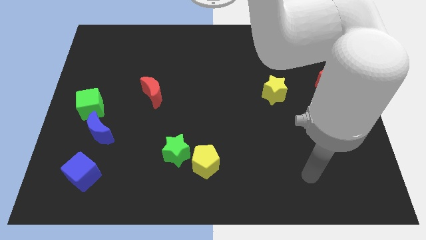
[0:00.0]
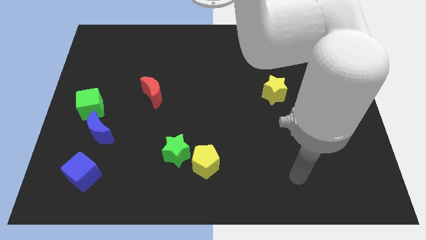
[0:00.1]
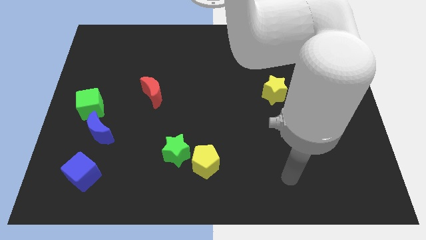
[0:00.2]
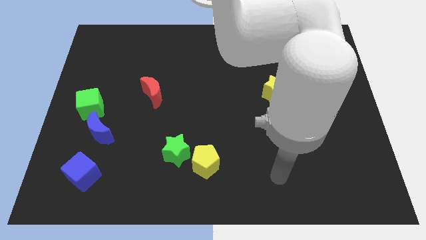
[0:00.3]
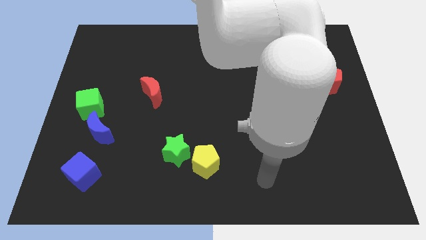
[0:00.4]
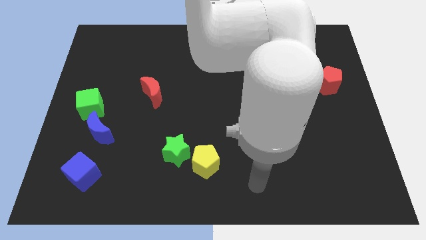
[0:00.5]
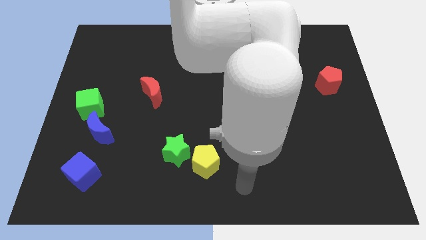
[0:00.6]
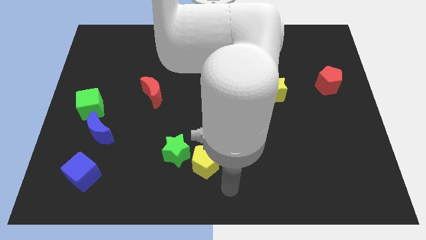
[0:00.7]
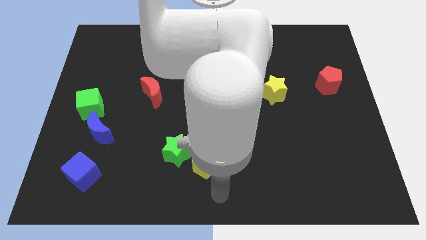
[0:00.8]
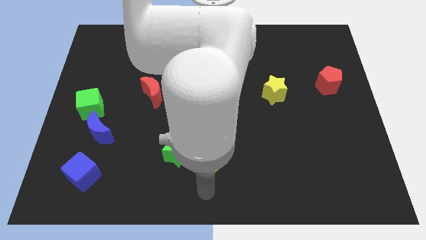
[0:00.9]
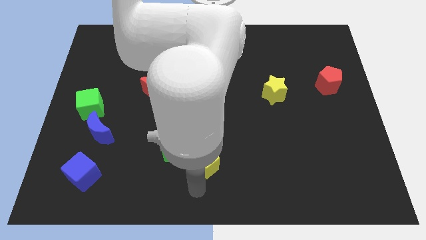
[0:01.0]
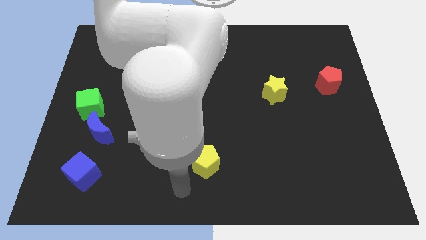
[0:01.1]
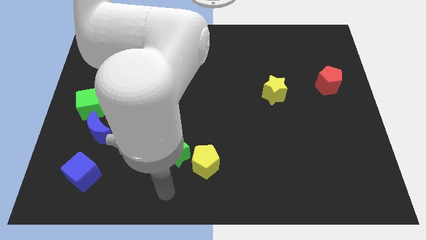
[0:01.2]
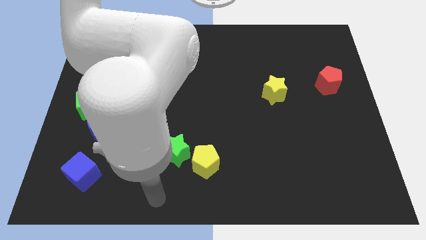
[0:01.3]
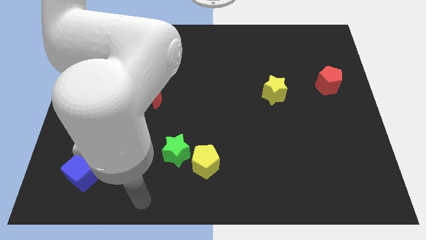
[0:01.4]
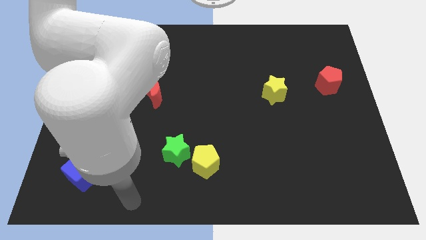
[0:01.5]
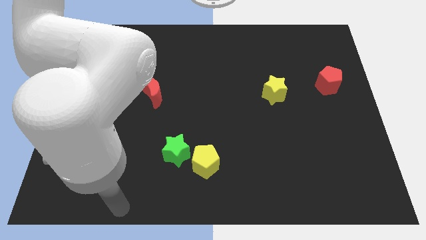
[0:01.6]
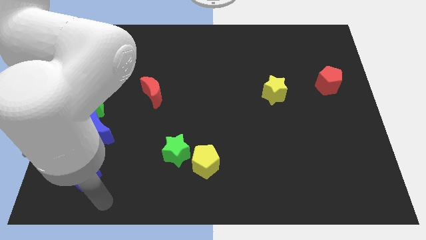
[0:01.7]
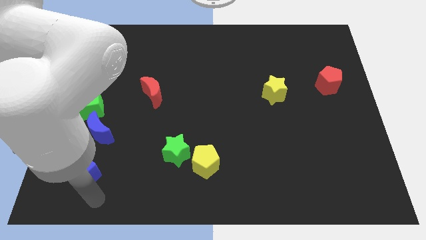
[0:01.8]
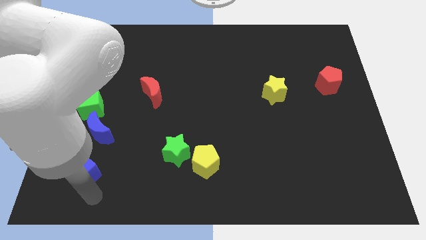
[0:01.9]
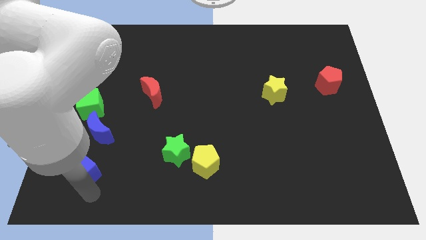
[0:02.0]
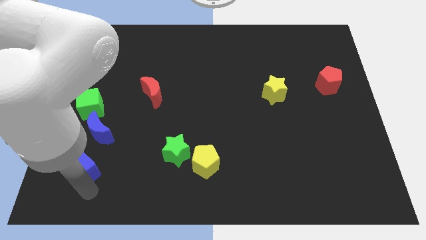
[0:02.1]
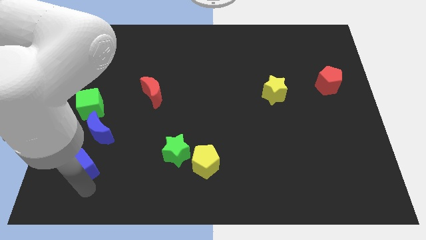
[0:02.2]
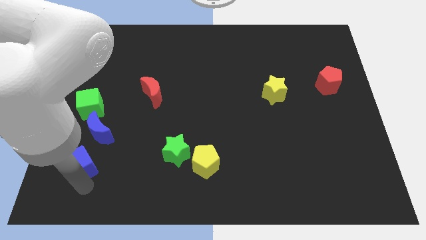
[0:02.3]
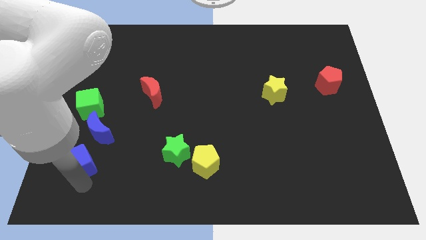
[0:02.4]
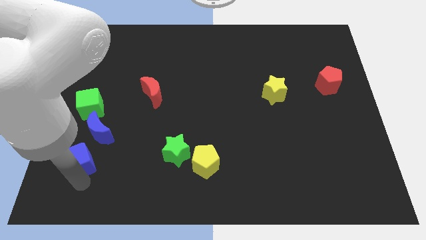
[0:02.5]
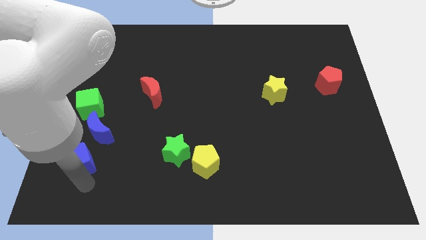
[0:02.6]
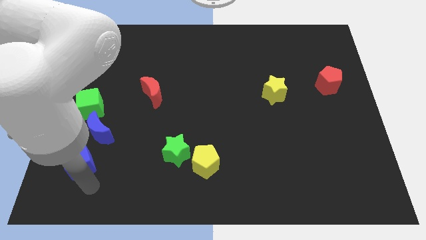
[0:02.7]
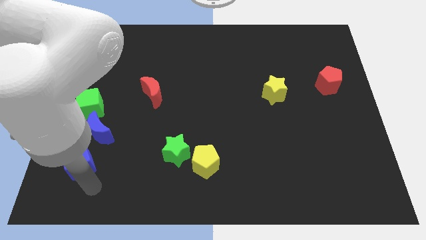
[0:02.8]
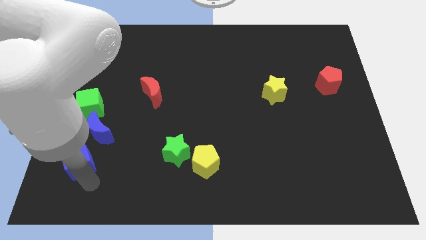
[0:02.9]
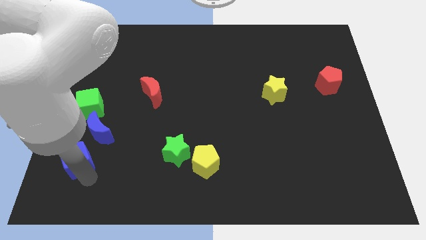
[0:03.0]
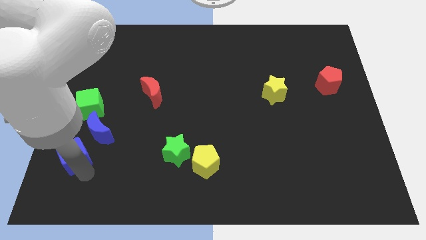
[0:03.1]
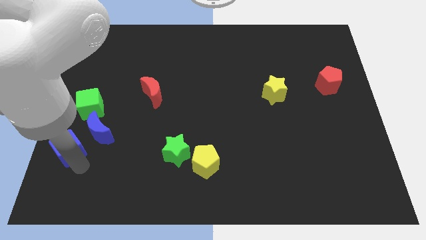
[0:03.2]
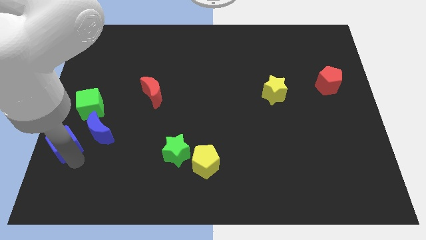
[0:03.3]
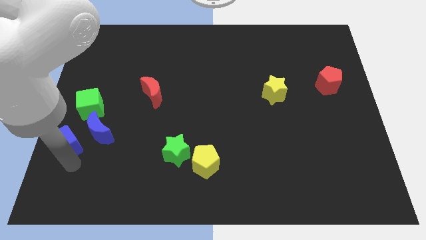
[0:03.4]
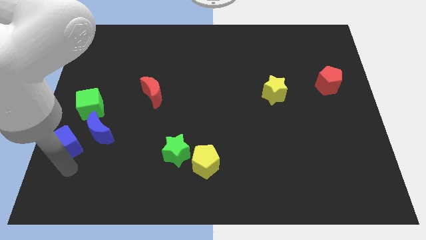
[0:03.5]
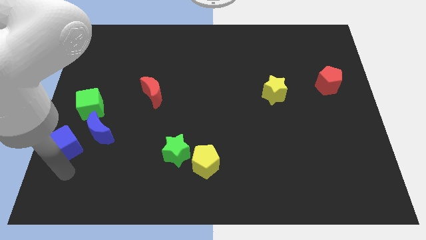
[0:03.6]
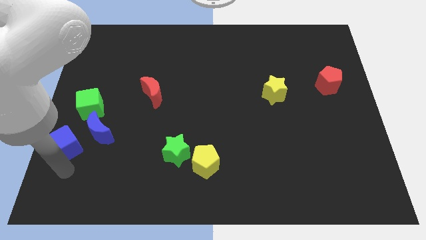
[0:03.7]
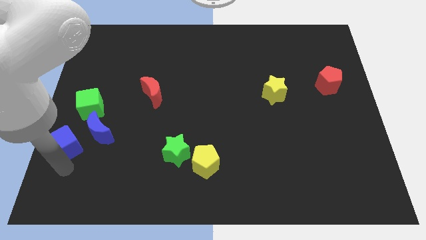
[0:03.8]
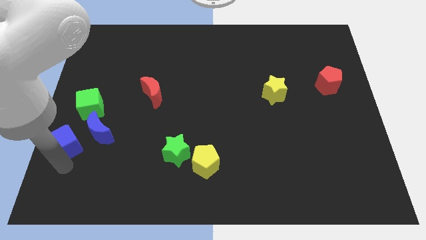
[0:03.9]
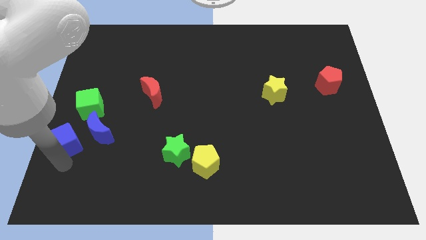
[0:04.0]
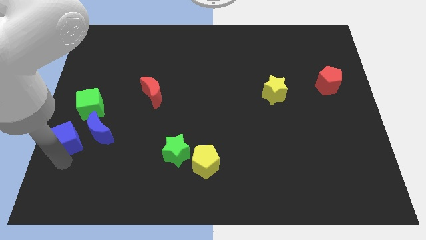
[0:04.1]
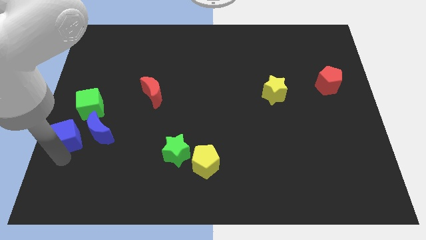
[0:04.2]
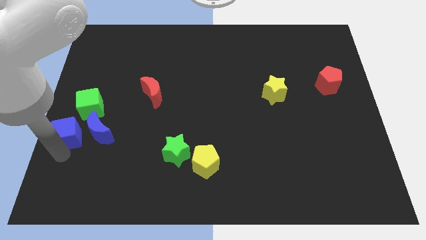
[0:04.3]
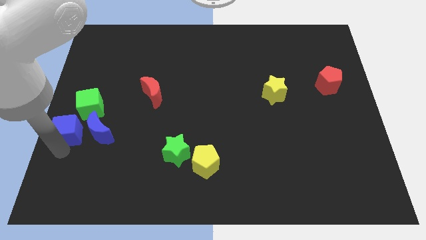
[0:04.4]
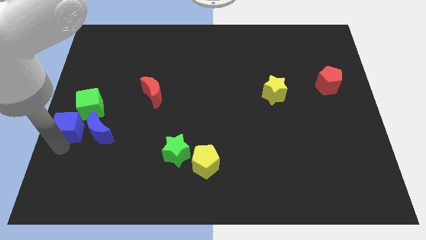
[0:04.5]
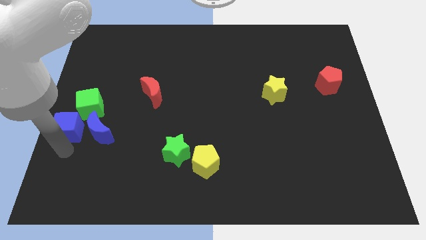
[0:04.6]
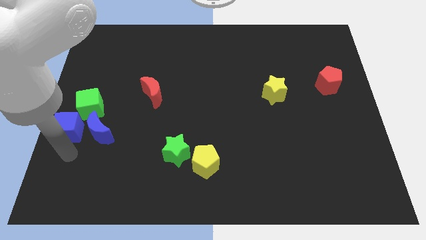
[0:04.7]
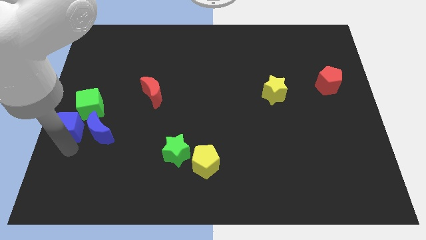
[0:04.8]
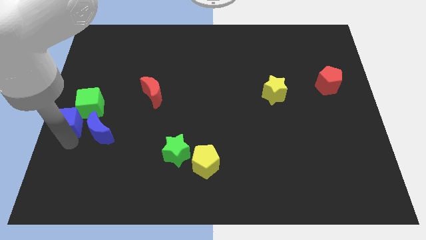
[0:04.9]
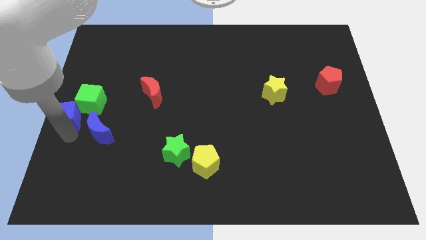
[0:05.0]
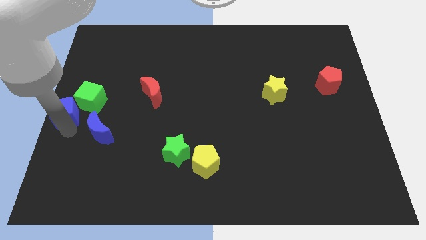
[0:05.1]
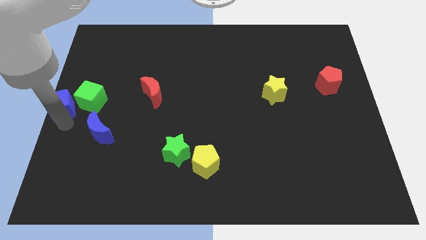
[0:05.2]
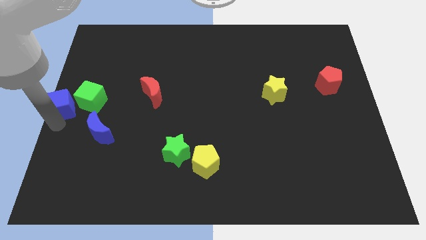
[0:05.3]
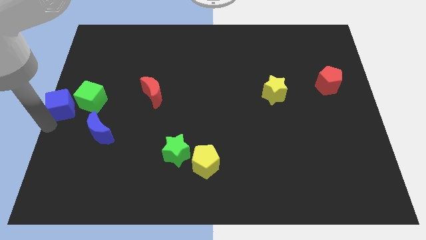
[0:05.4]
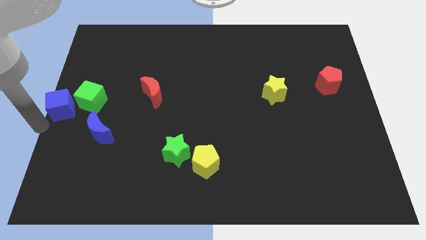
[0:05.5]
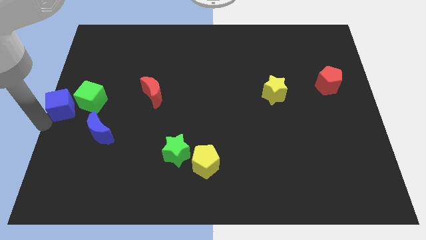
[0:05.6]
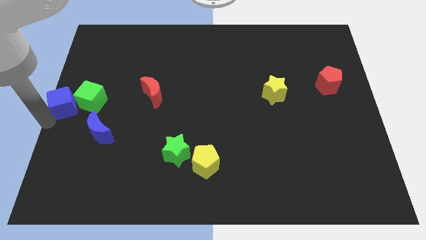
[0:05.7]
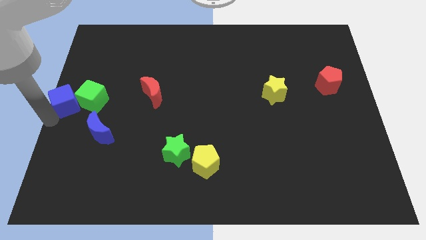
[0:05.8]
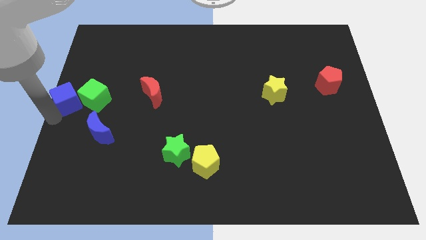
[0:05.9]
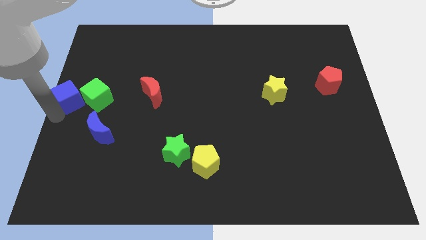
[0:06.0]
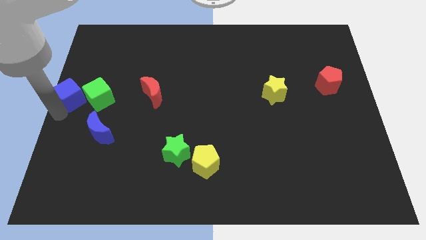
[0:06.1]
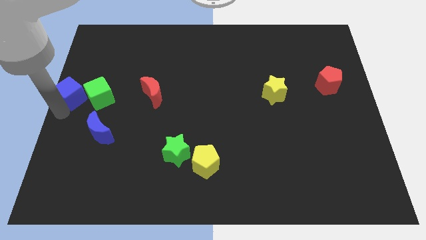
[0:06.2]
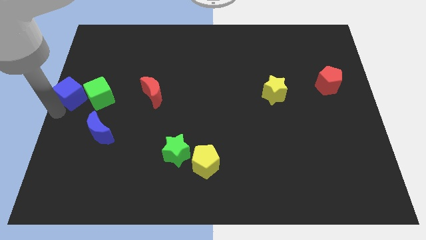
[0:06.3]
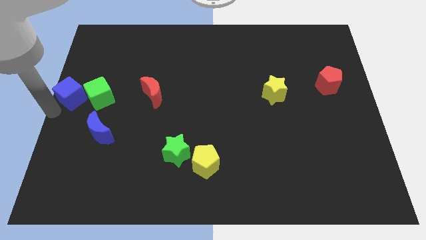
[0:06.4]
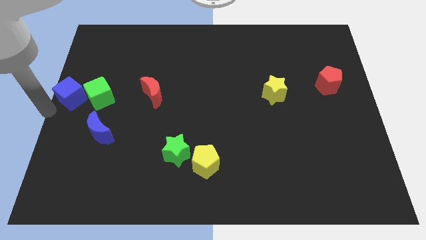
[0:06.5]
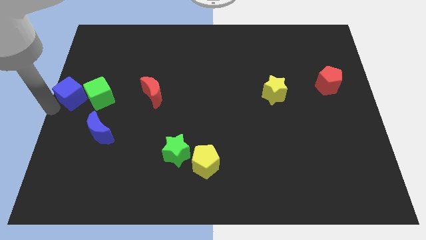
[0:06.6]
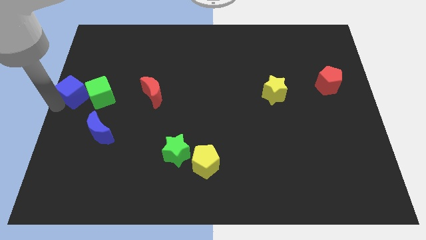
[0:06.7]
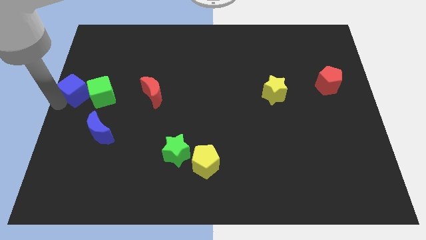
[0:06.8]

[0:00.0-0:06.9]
move the blue cube upwards

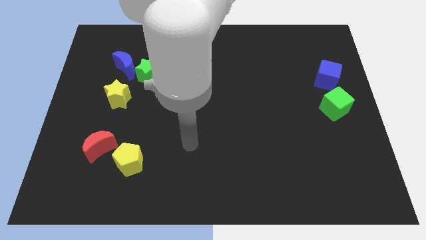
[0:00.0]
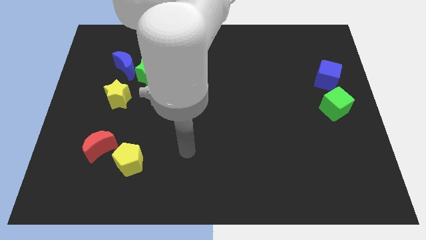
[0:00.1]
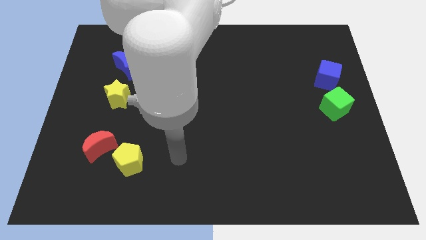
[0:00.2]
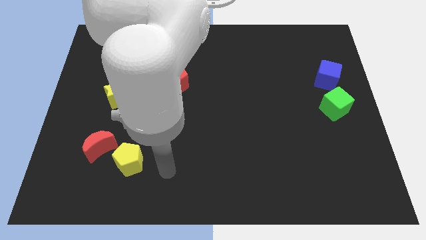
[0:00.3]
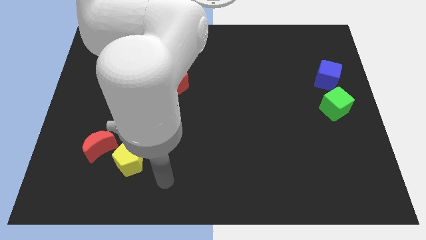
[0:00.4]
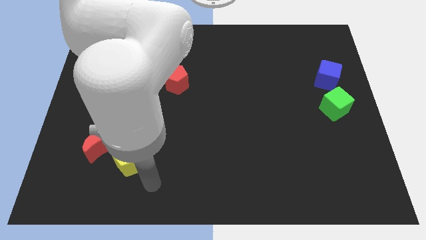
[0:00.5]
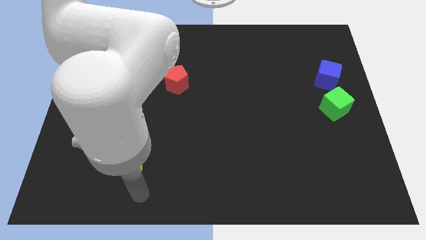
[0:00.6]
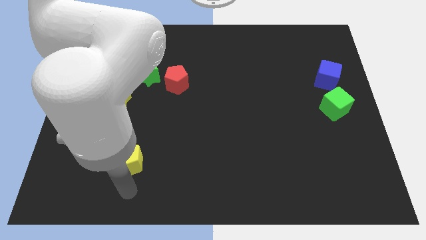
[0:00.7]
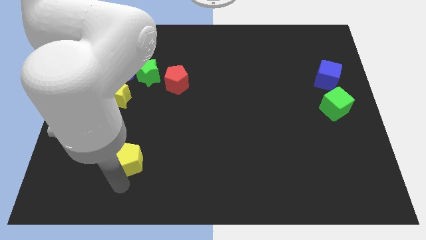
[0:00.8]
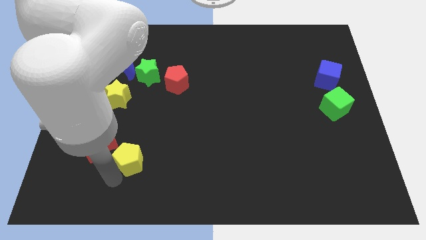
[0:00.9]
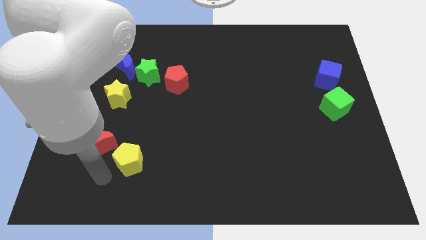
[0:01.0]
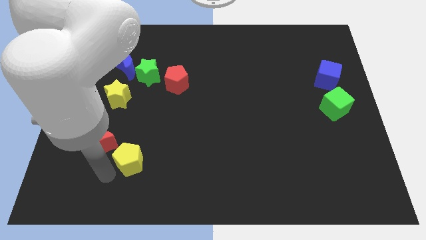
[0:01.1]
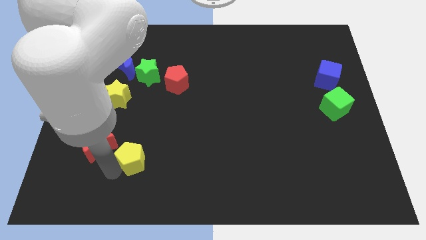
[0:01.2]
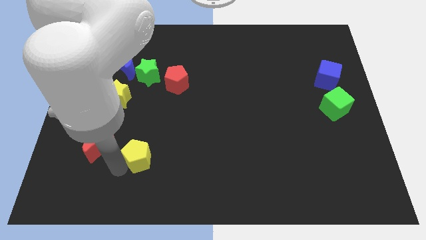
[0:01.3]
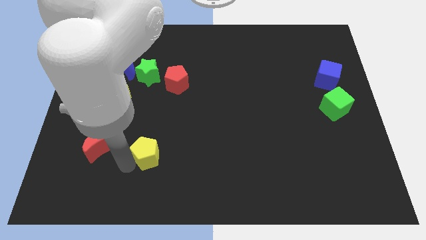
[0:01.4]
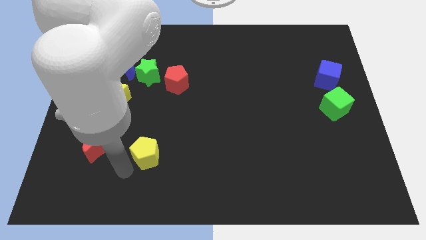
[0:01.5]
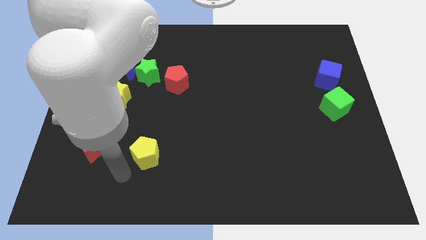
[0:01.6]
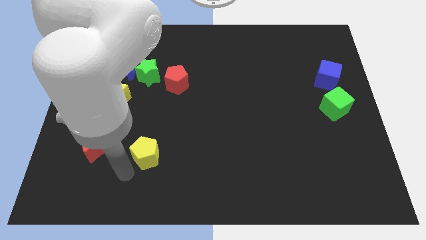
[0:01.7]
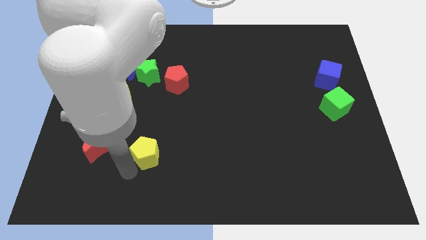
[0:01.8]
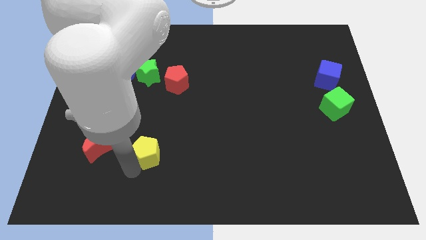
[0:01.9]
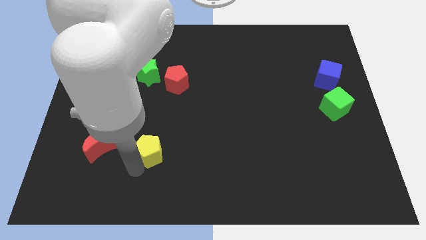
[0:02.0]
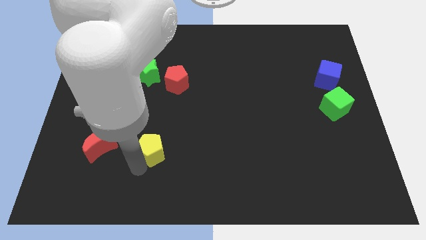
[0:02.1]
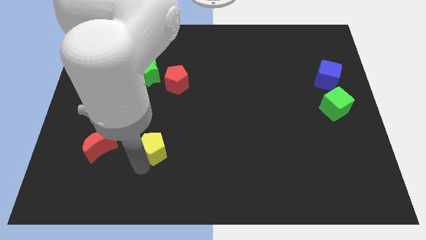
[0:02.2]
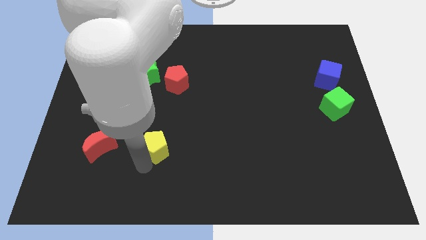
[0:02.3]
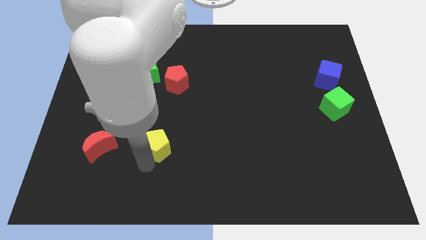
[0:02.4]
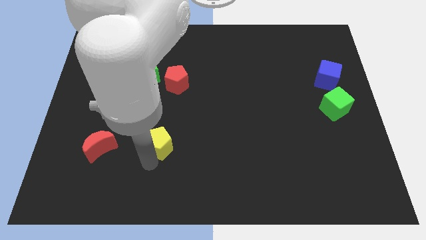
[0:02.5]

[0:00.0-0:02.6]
slightly push the yellow pentagon upwards and then right
